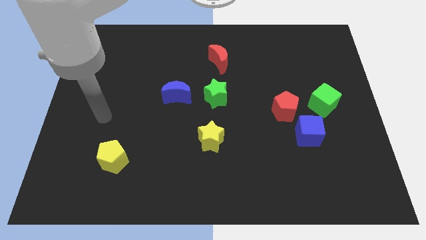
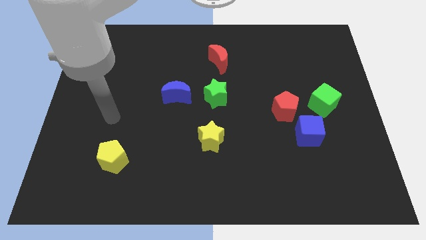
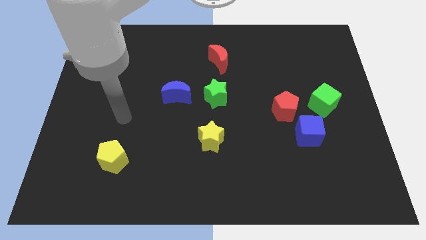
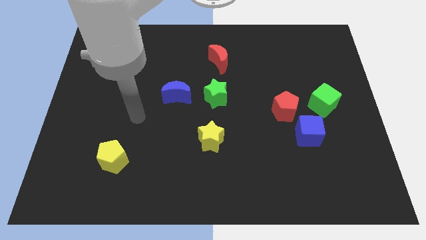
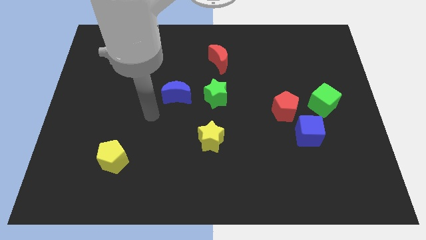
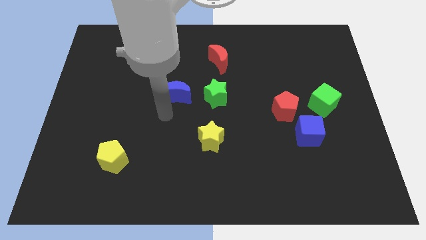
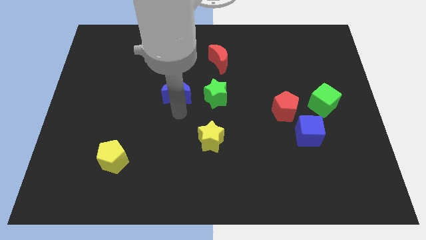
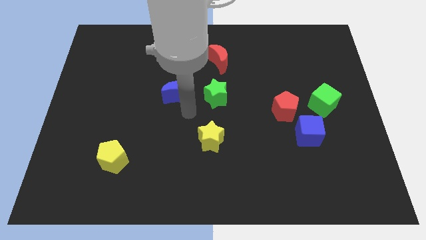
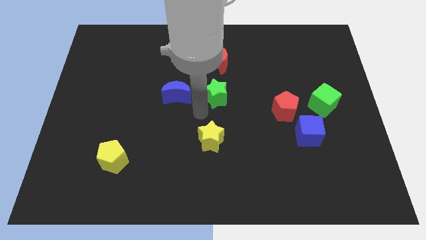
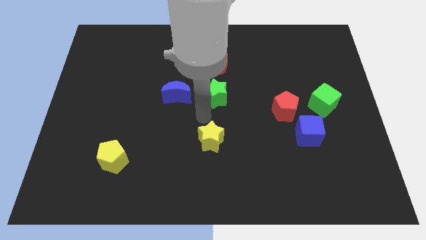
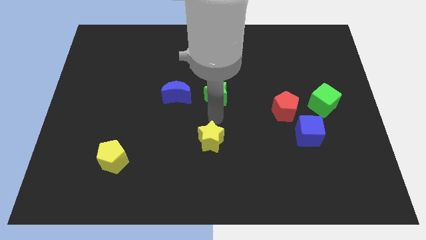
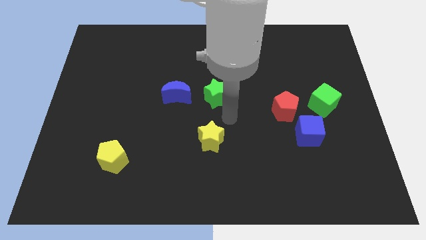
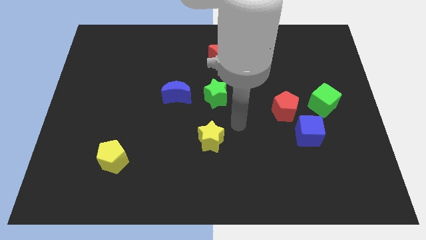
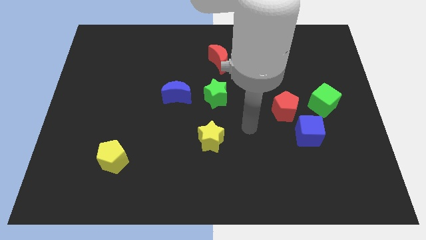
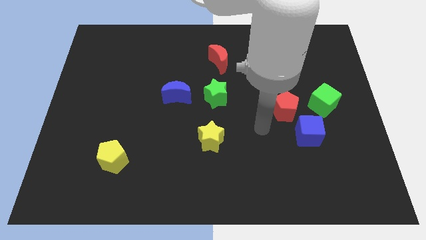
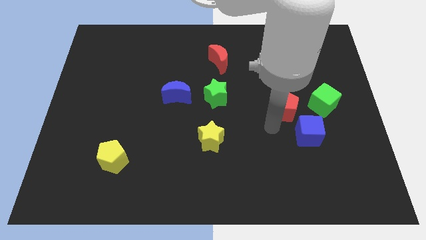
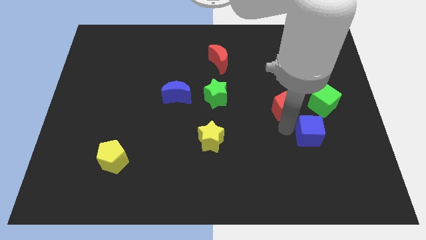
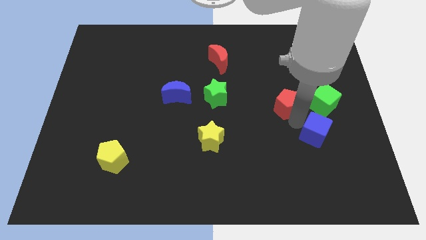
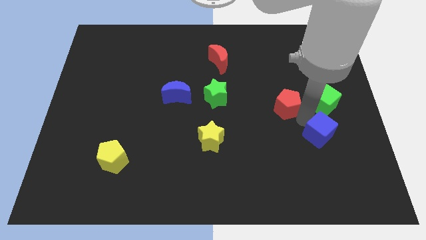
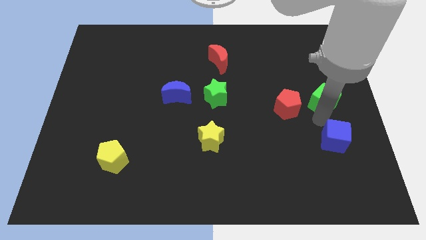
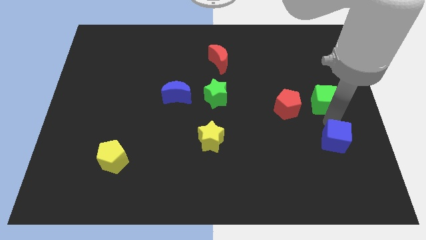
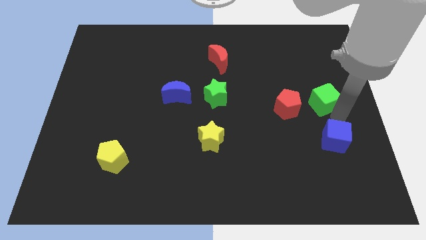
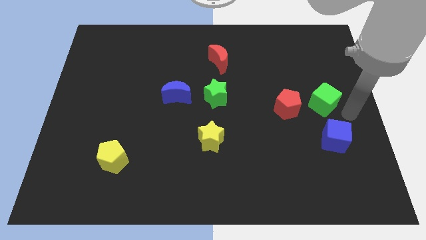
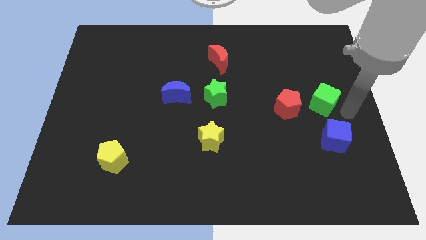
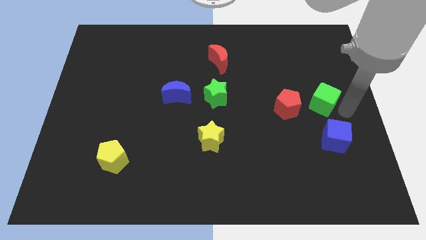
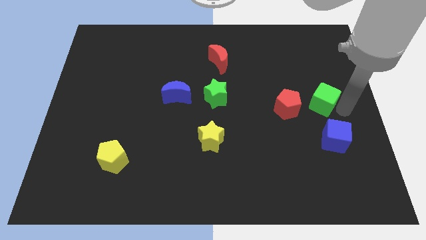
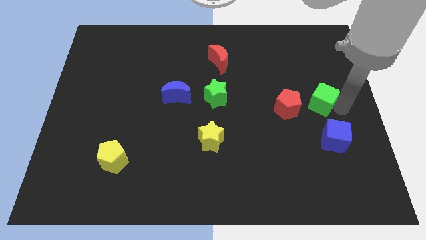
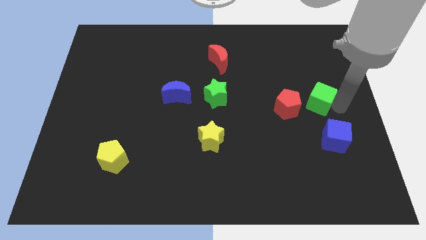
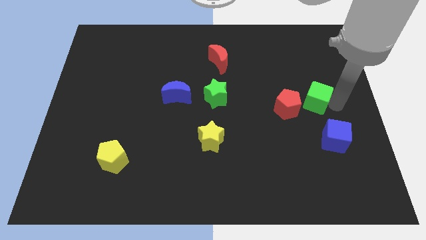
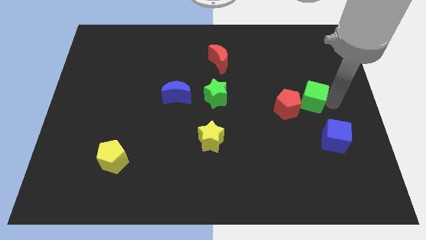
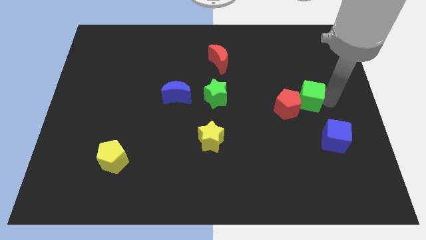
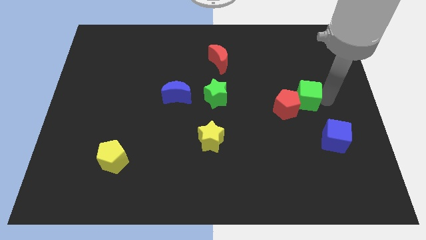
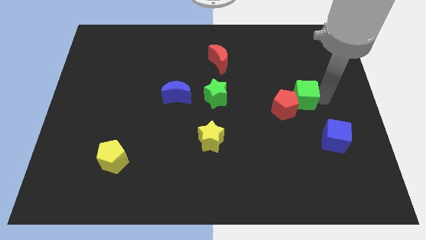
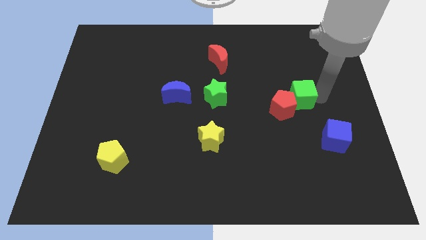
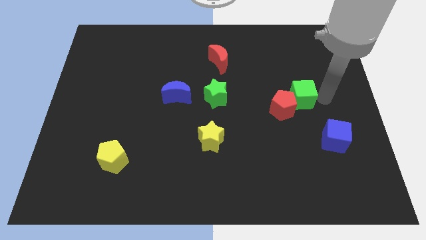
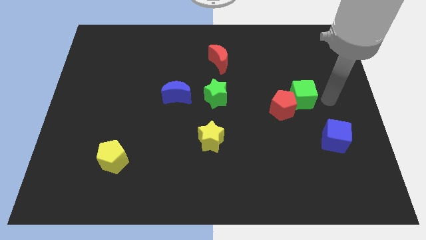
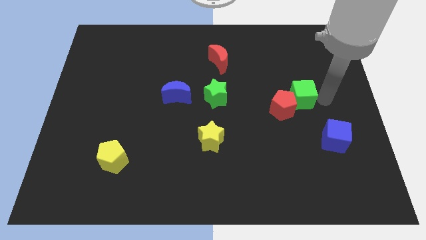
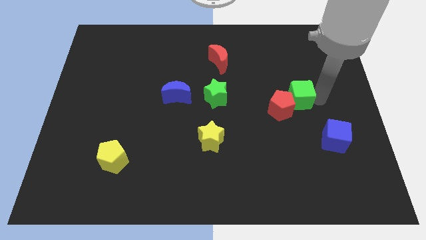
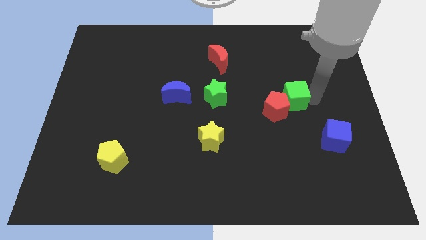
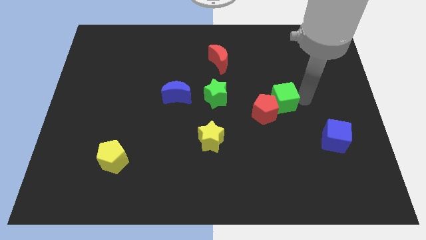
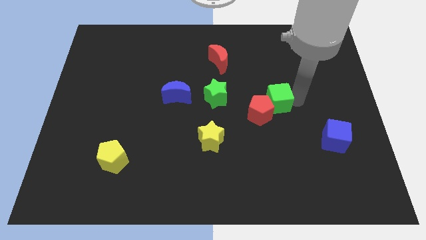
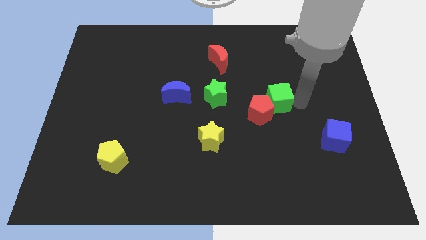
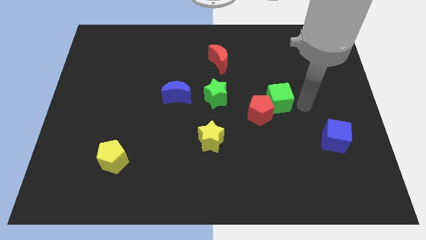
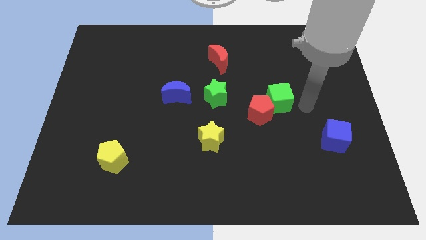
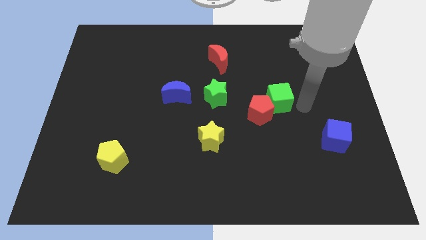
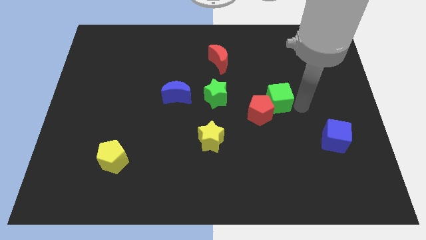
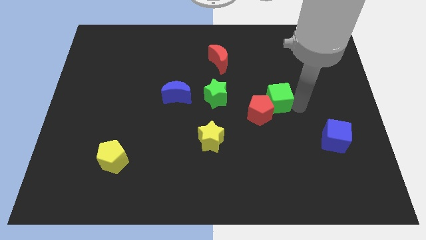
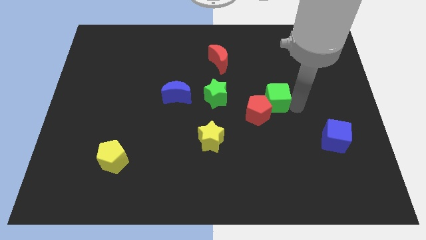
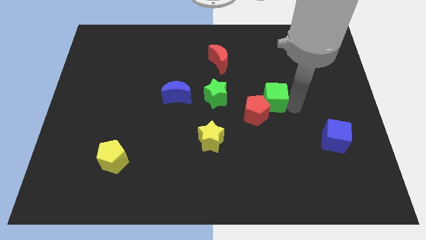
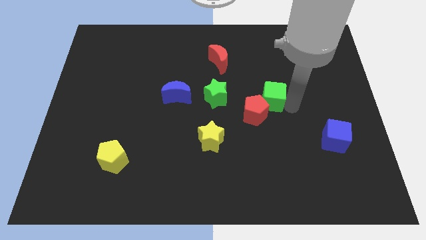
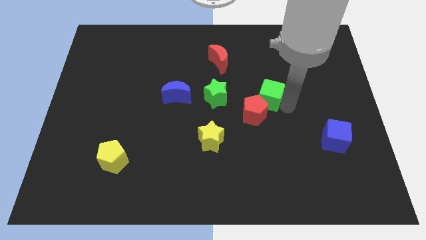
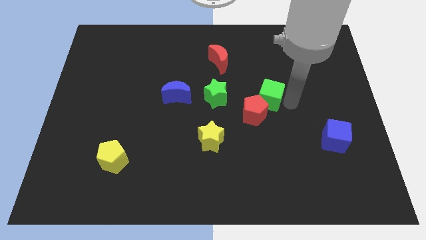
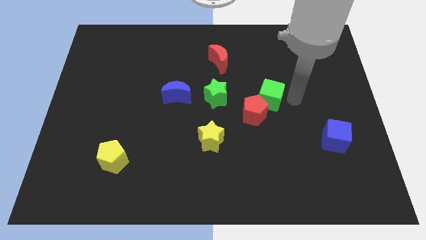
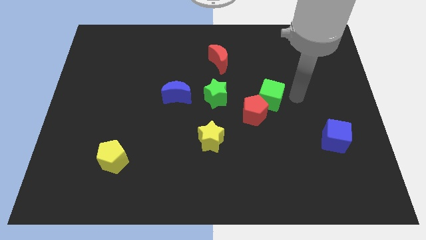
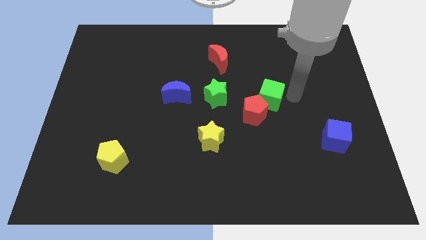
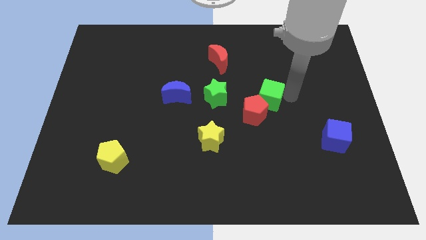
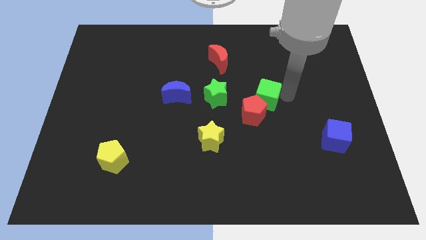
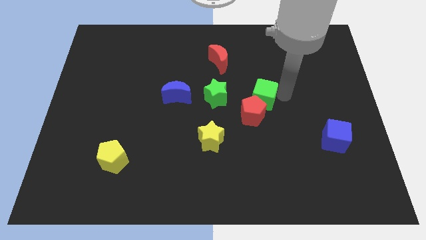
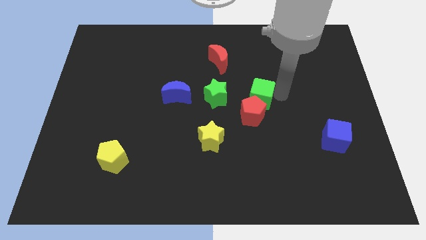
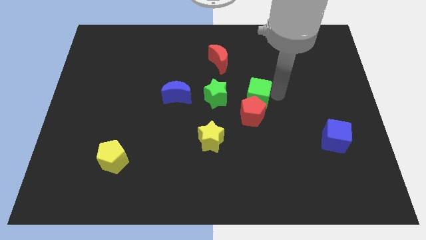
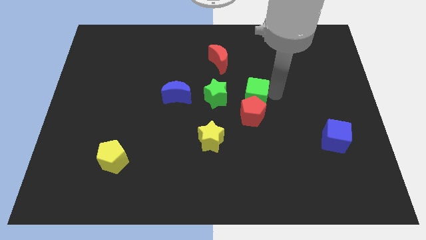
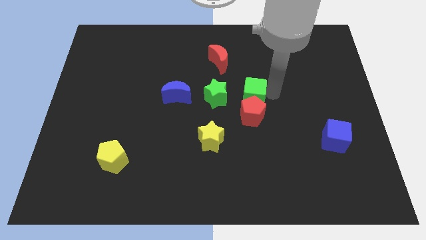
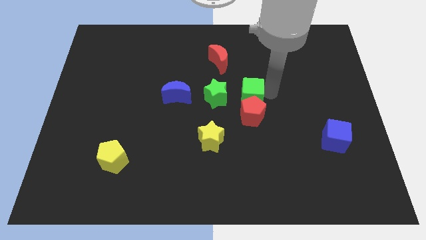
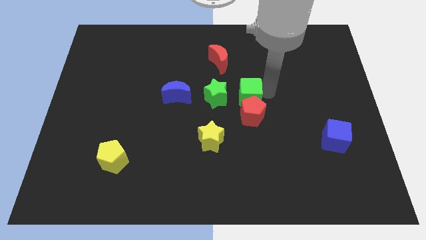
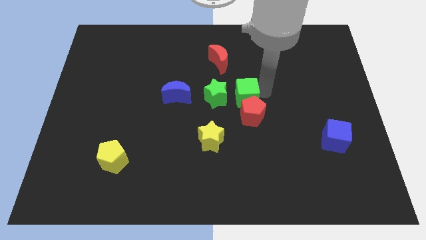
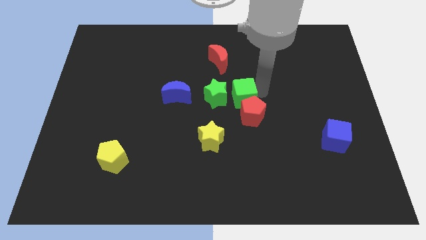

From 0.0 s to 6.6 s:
slide the green cube close to the green star
